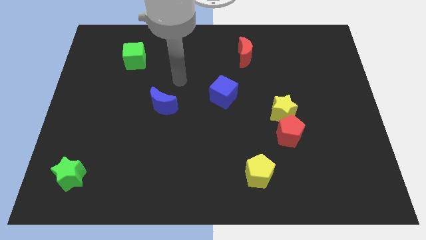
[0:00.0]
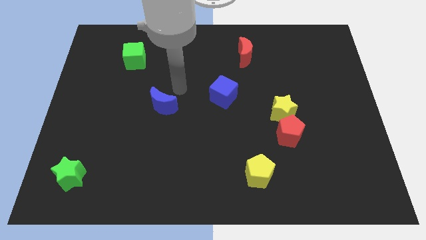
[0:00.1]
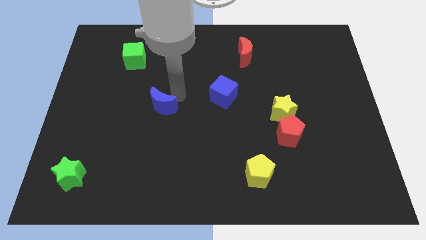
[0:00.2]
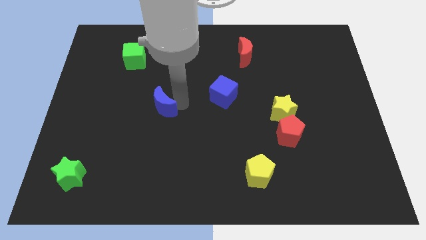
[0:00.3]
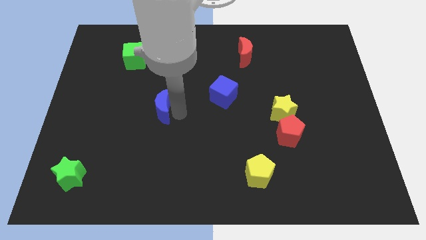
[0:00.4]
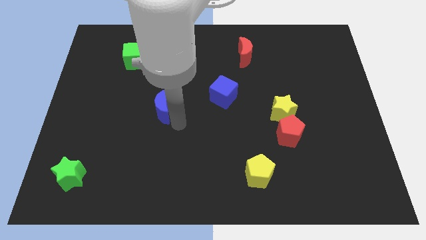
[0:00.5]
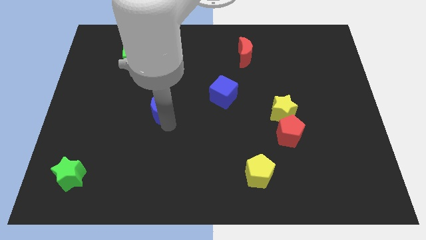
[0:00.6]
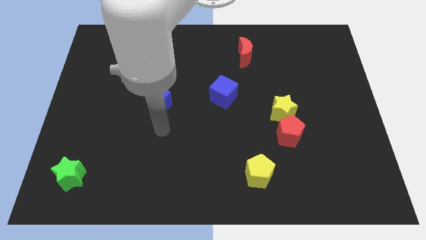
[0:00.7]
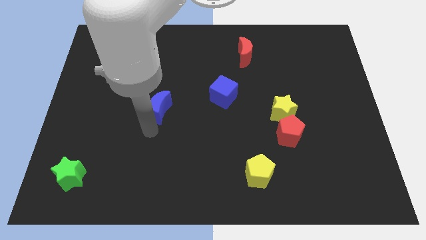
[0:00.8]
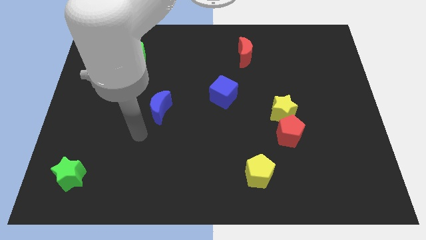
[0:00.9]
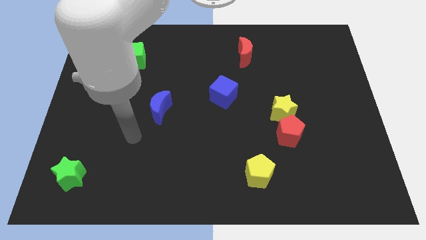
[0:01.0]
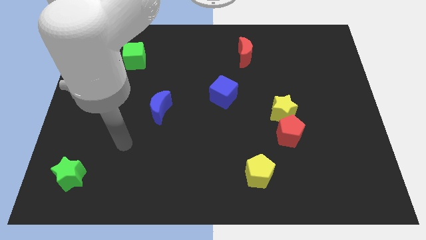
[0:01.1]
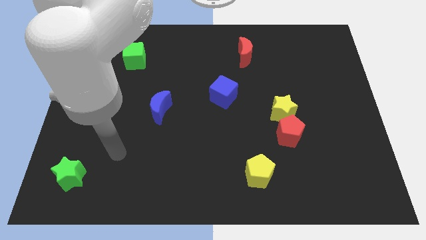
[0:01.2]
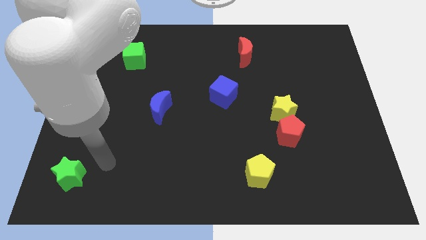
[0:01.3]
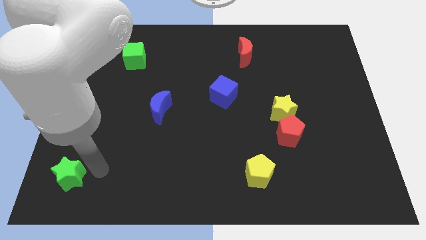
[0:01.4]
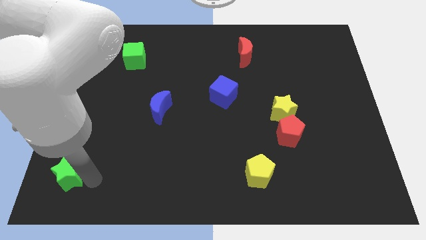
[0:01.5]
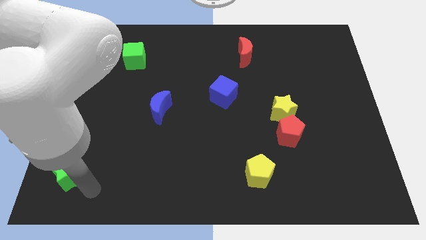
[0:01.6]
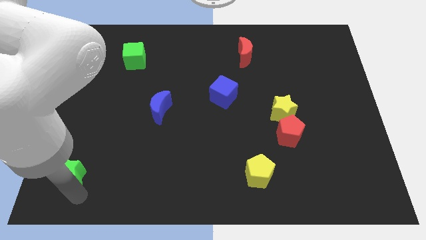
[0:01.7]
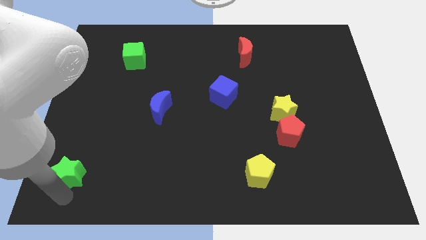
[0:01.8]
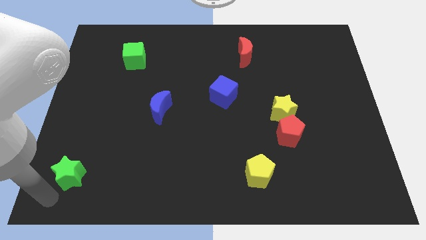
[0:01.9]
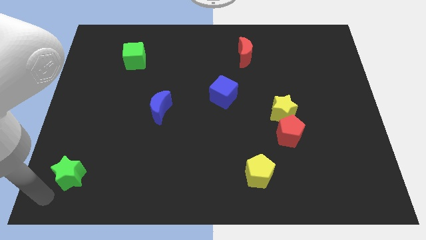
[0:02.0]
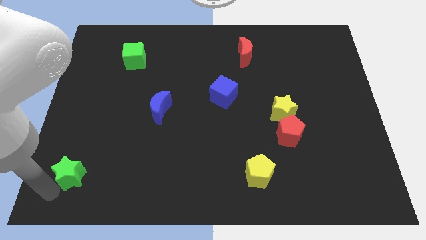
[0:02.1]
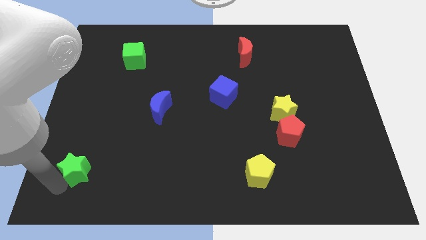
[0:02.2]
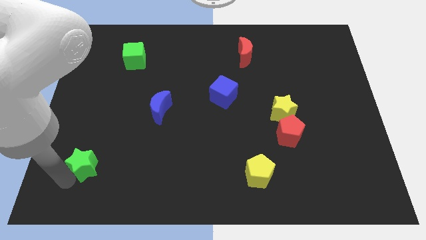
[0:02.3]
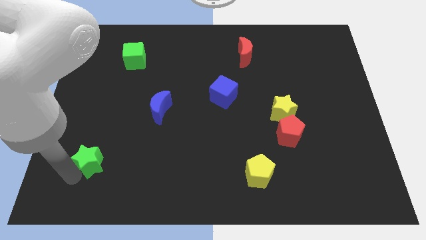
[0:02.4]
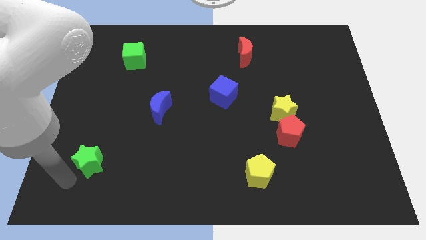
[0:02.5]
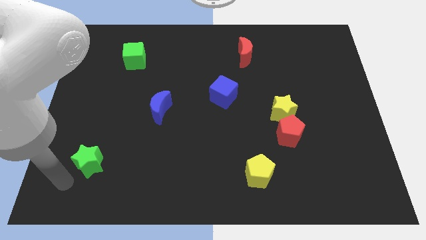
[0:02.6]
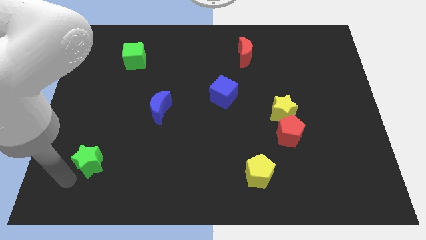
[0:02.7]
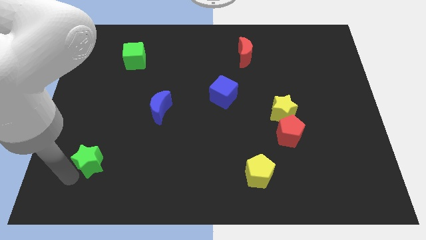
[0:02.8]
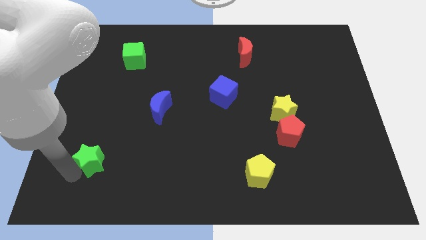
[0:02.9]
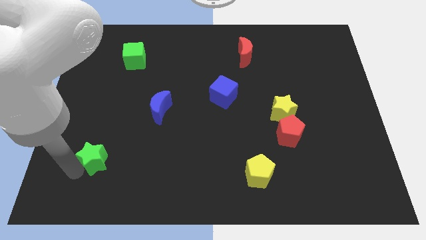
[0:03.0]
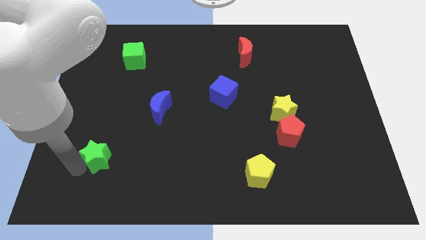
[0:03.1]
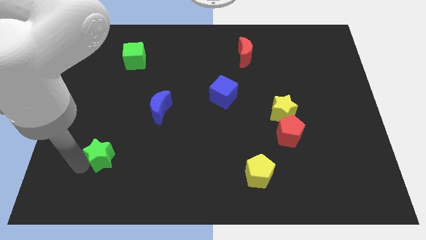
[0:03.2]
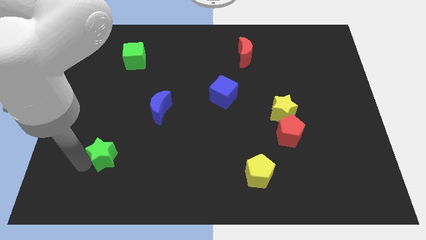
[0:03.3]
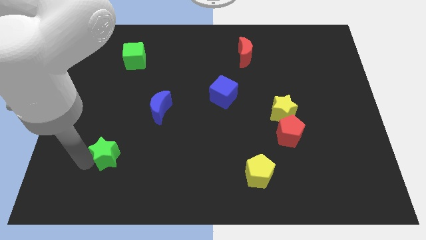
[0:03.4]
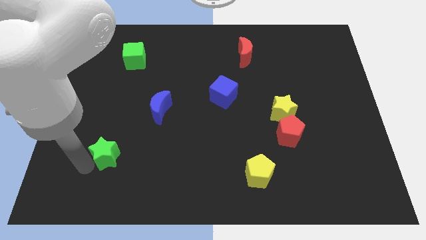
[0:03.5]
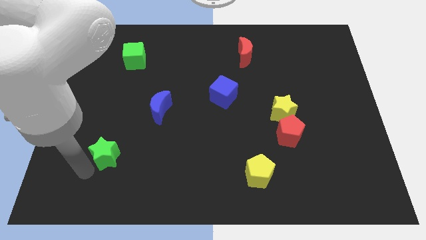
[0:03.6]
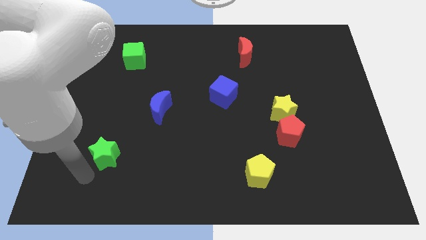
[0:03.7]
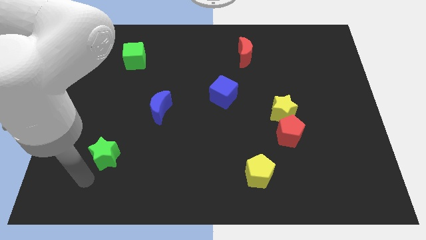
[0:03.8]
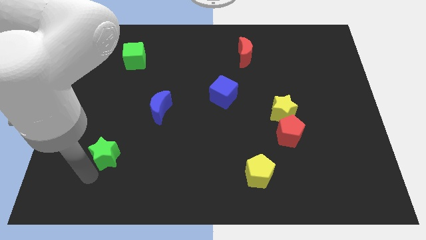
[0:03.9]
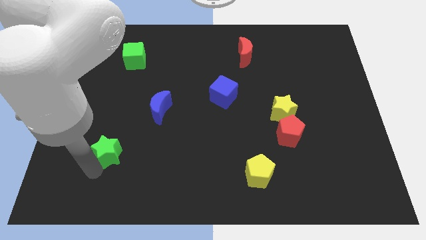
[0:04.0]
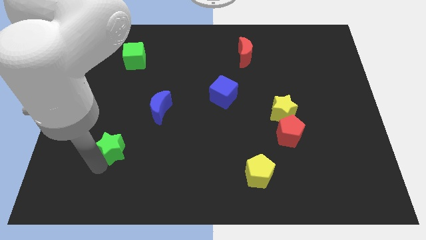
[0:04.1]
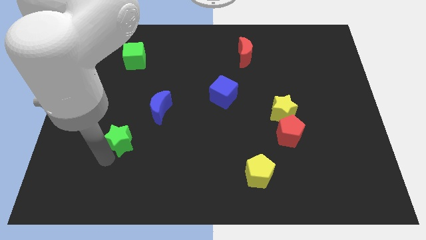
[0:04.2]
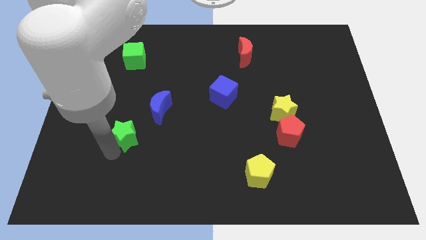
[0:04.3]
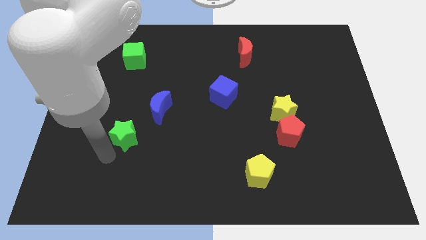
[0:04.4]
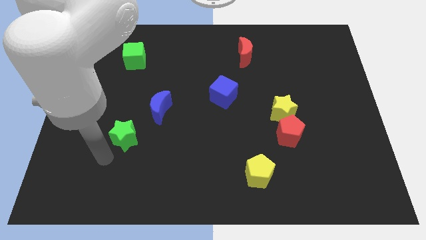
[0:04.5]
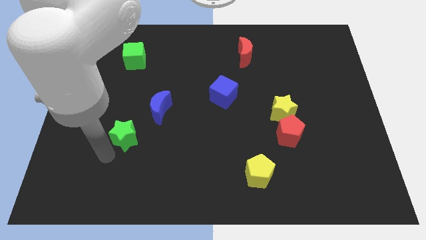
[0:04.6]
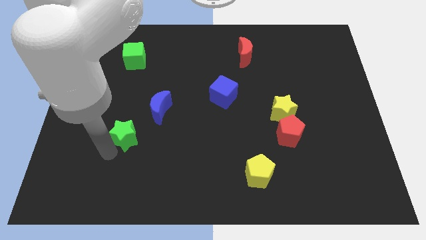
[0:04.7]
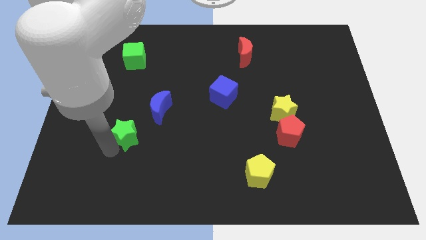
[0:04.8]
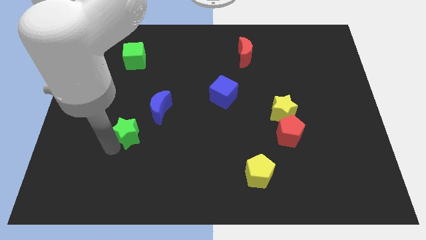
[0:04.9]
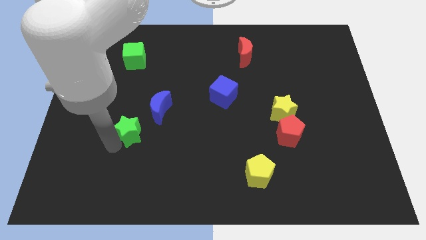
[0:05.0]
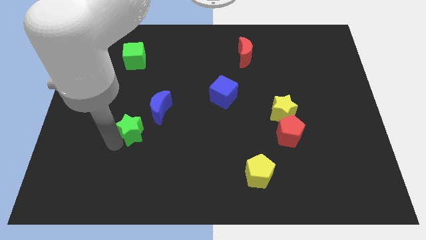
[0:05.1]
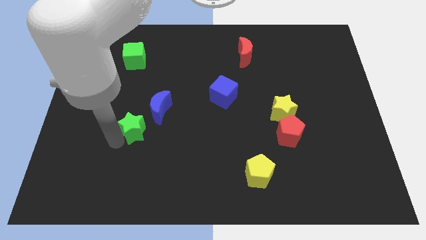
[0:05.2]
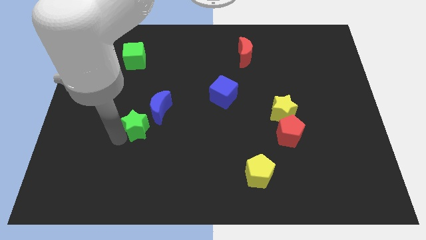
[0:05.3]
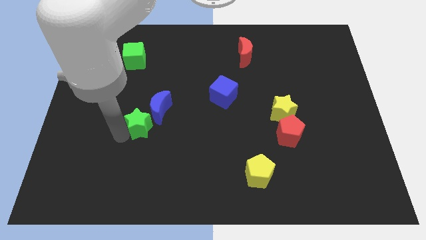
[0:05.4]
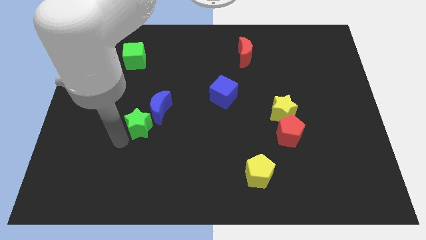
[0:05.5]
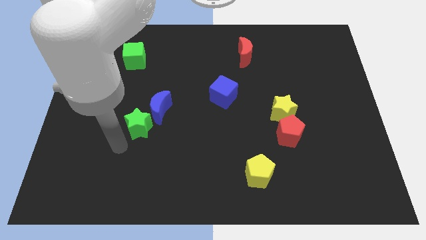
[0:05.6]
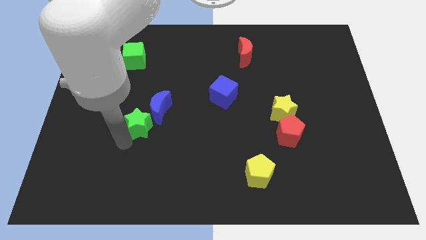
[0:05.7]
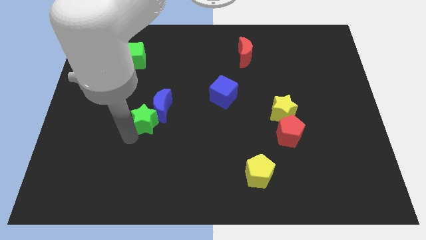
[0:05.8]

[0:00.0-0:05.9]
put the green star towards the blue moon

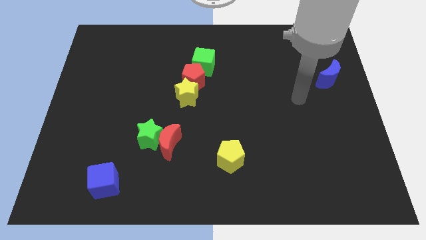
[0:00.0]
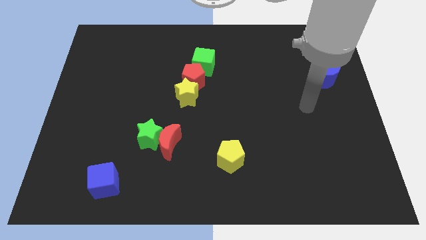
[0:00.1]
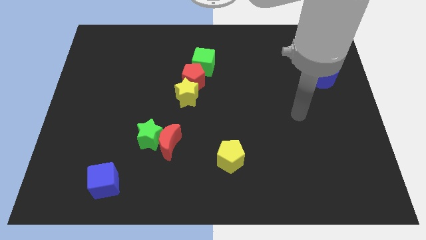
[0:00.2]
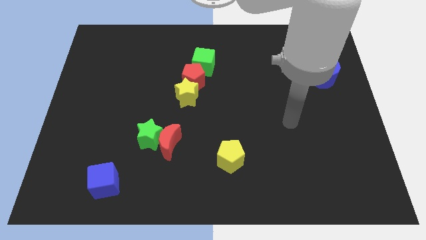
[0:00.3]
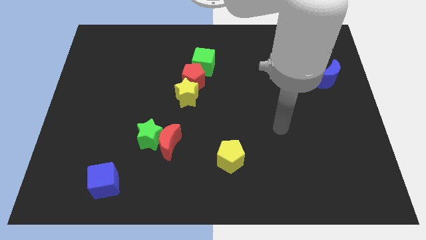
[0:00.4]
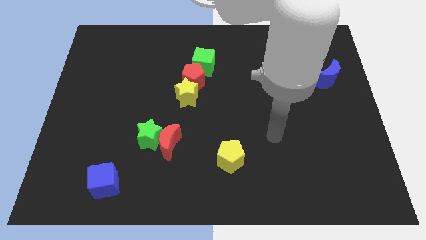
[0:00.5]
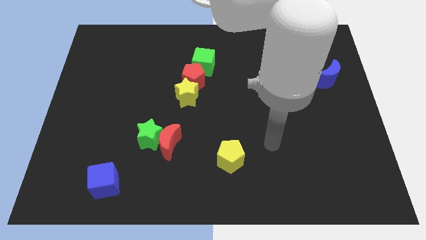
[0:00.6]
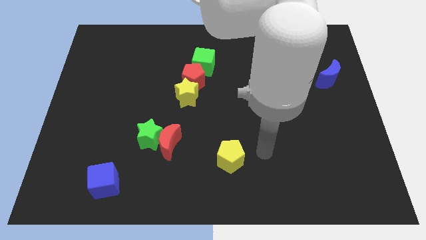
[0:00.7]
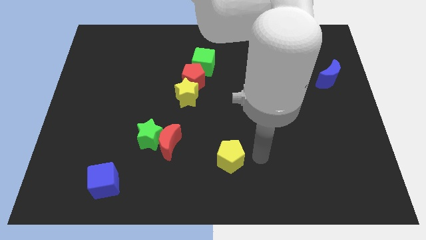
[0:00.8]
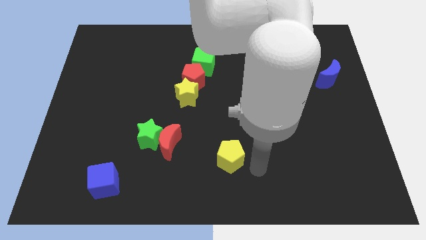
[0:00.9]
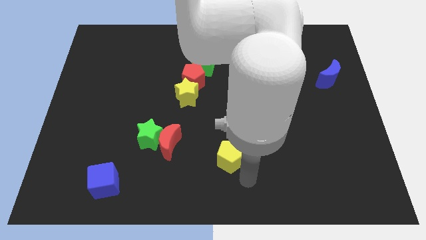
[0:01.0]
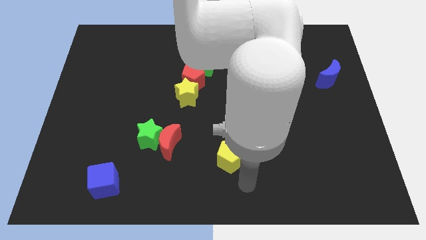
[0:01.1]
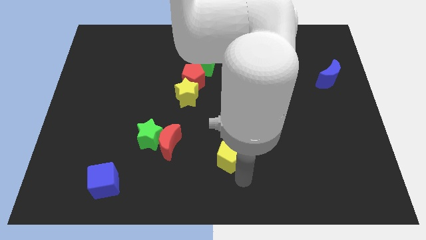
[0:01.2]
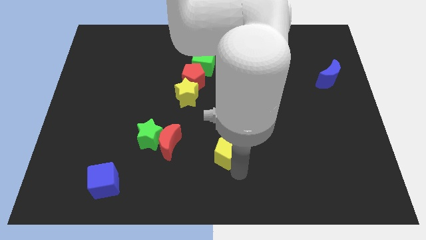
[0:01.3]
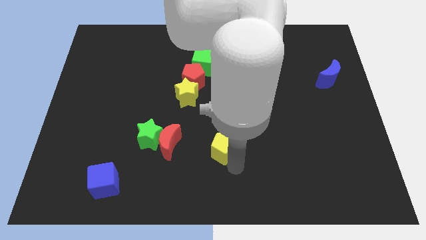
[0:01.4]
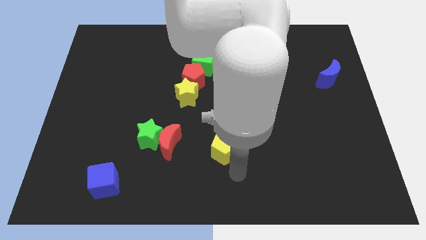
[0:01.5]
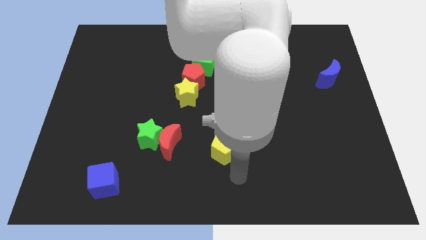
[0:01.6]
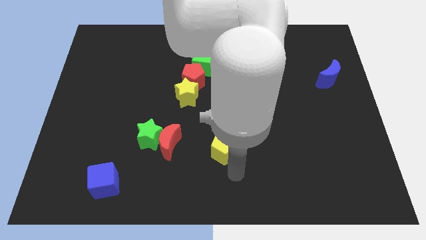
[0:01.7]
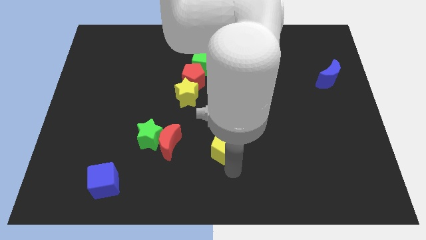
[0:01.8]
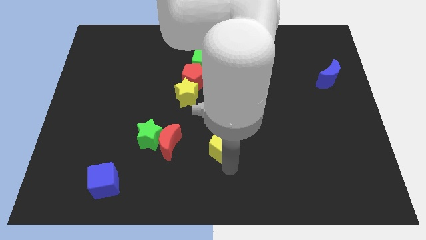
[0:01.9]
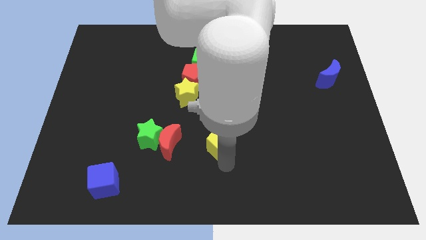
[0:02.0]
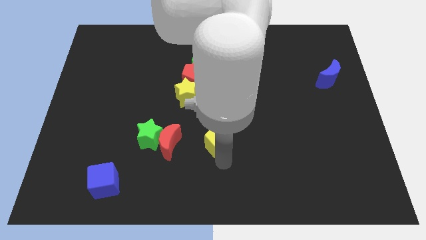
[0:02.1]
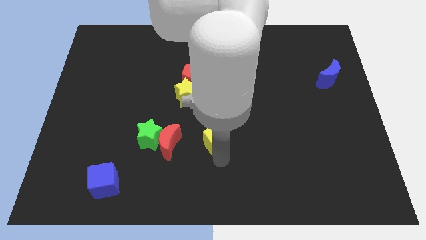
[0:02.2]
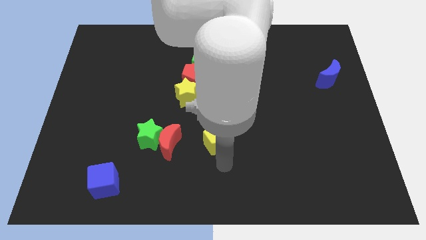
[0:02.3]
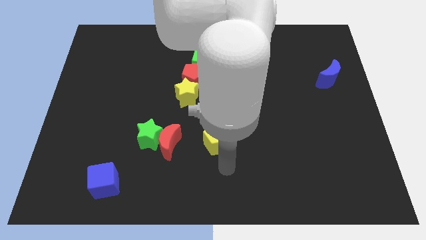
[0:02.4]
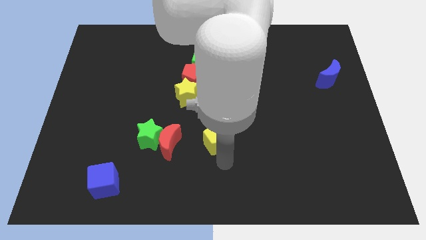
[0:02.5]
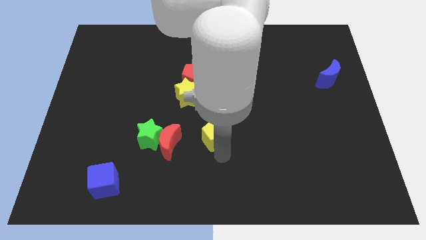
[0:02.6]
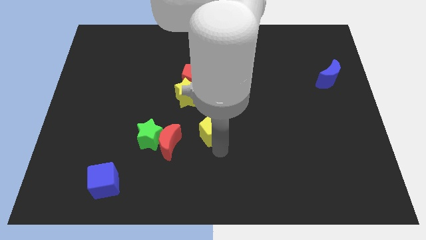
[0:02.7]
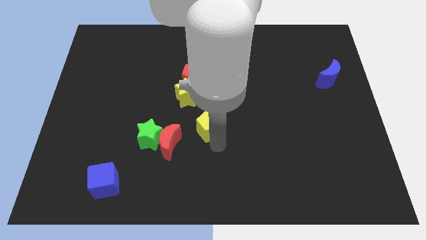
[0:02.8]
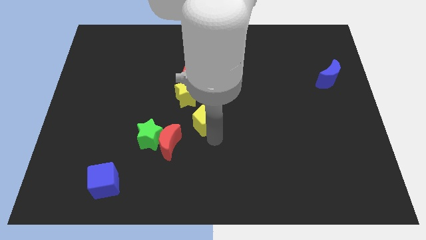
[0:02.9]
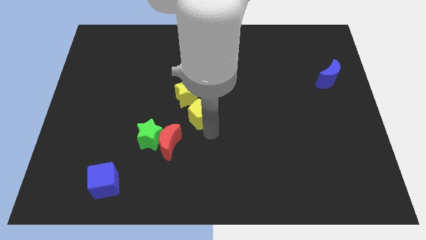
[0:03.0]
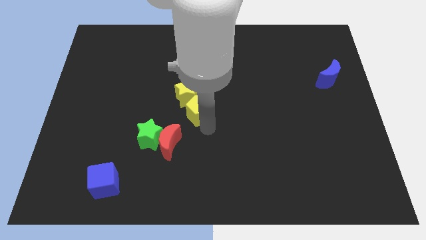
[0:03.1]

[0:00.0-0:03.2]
move the yellow pentagon towards the yellow star
